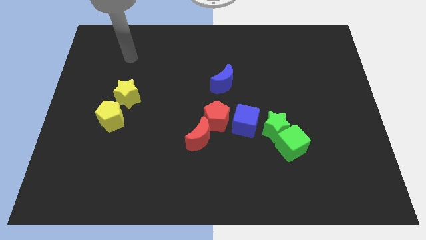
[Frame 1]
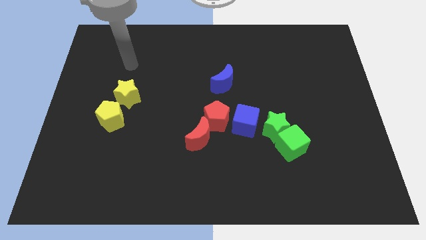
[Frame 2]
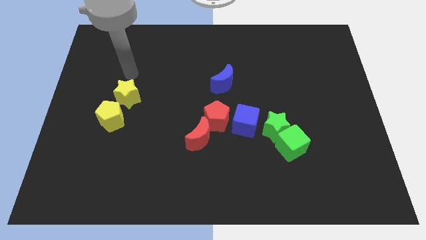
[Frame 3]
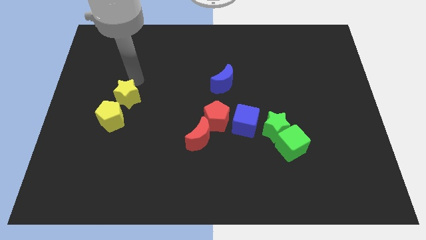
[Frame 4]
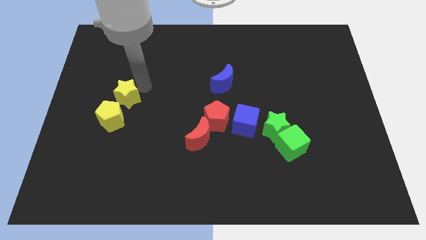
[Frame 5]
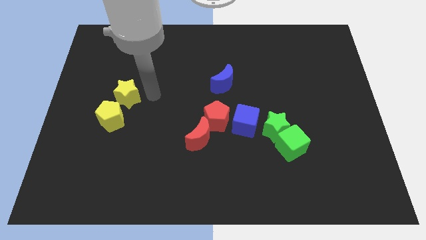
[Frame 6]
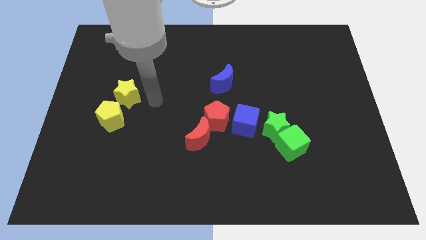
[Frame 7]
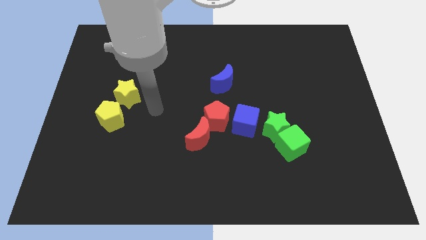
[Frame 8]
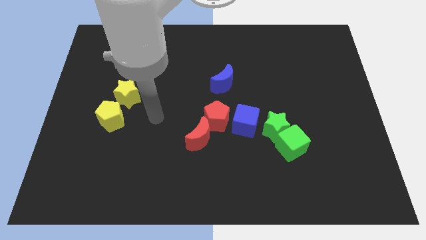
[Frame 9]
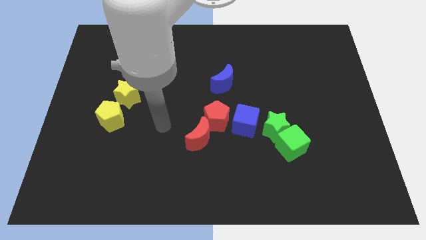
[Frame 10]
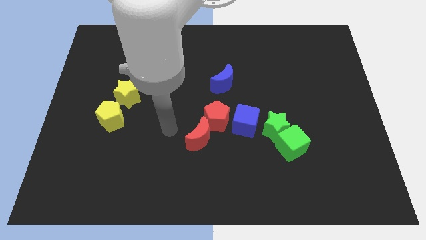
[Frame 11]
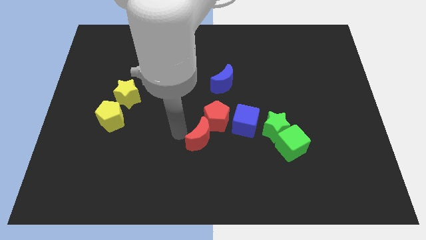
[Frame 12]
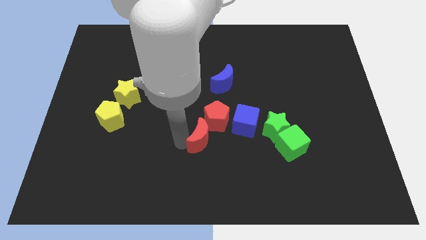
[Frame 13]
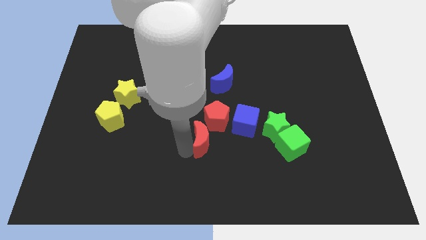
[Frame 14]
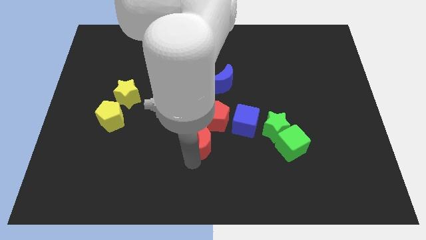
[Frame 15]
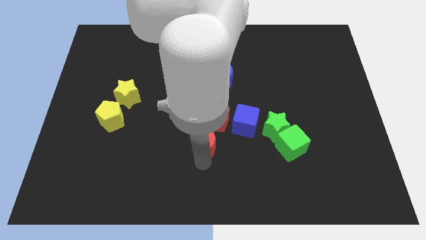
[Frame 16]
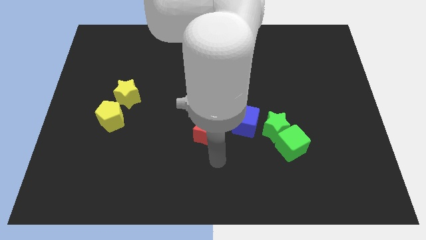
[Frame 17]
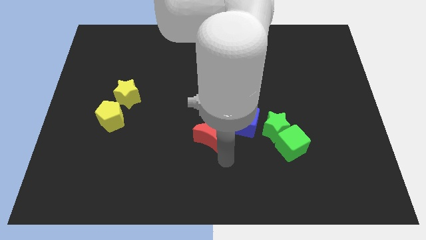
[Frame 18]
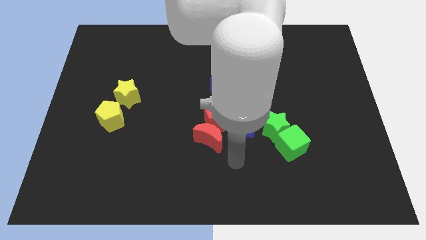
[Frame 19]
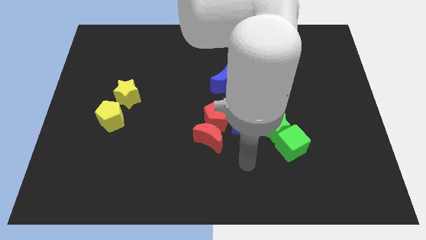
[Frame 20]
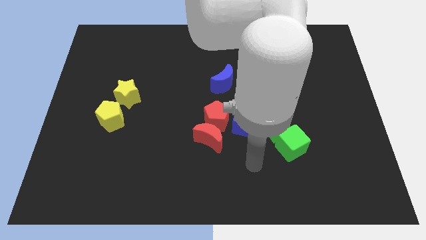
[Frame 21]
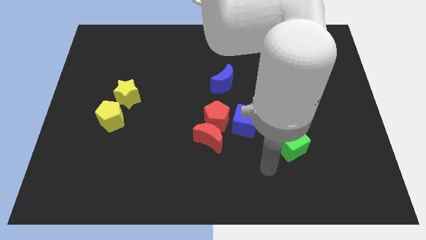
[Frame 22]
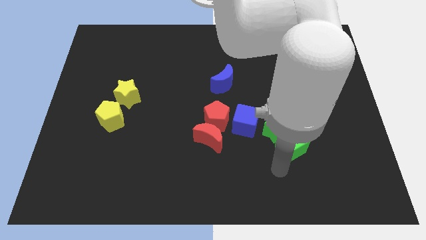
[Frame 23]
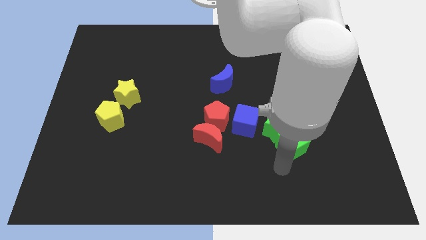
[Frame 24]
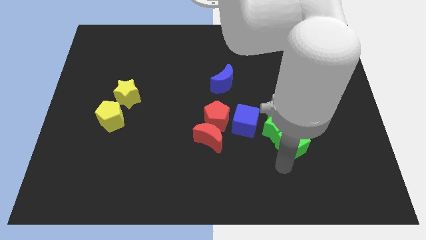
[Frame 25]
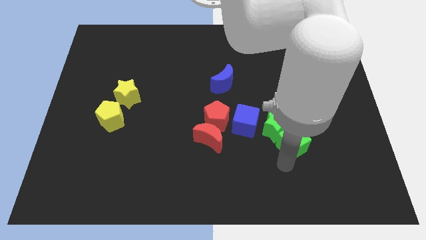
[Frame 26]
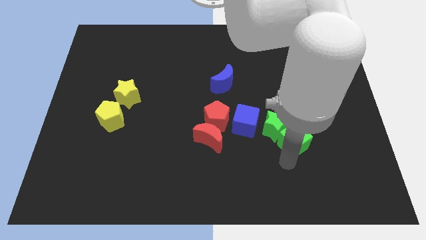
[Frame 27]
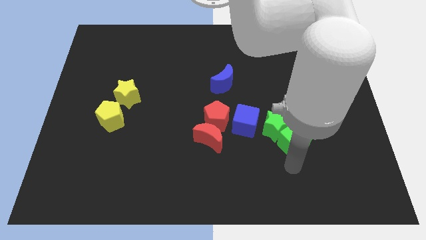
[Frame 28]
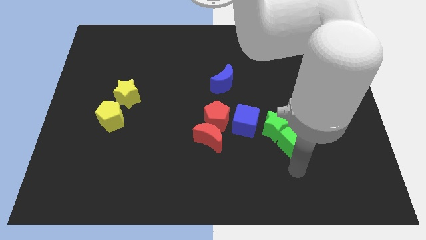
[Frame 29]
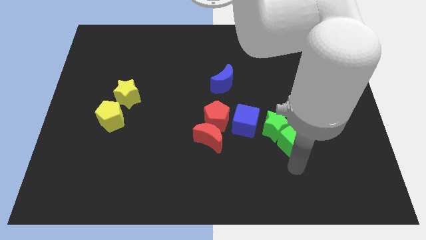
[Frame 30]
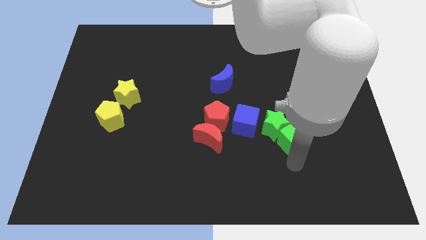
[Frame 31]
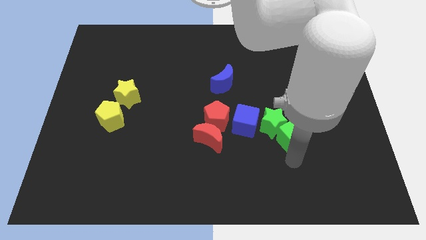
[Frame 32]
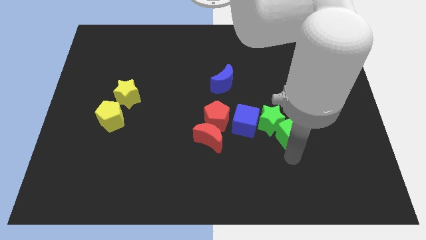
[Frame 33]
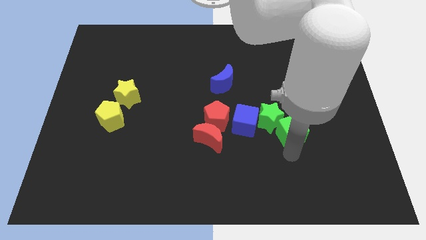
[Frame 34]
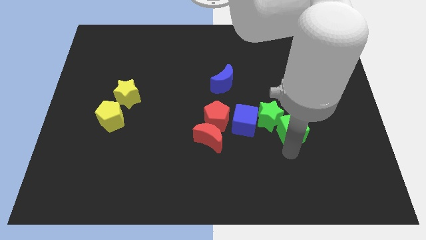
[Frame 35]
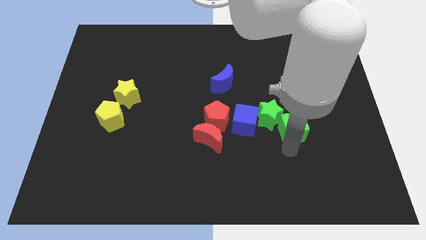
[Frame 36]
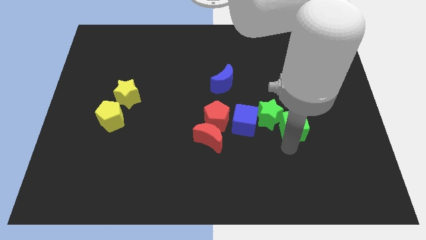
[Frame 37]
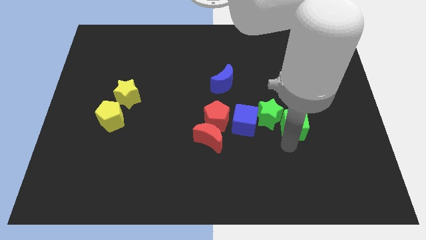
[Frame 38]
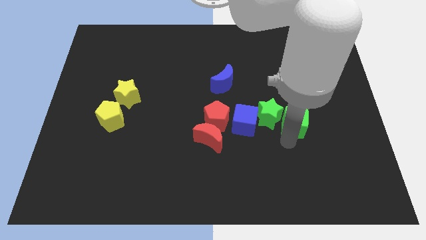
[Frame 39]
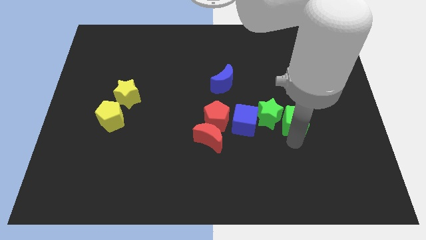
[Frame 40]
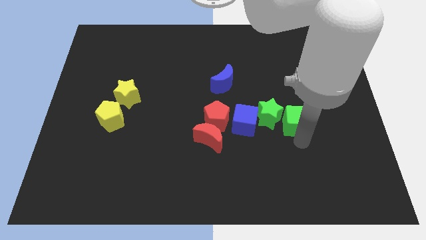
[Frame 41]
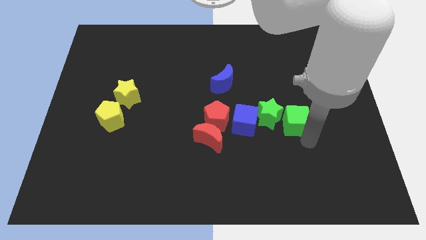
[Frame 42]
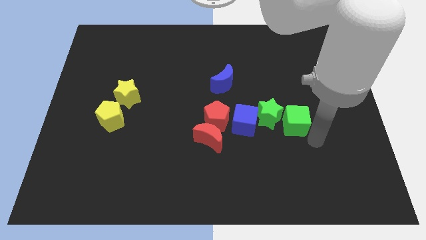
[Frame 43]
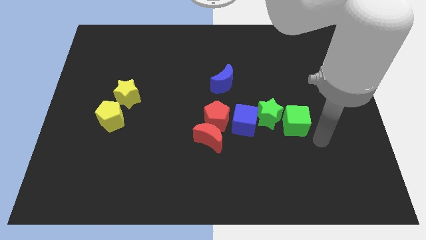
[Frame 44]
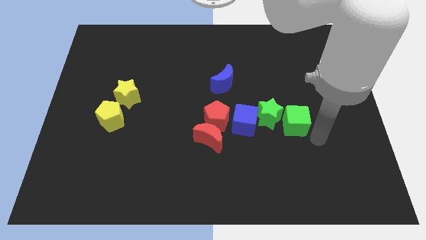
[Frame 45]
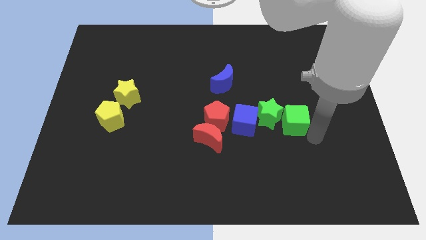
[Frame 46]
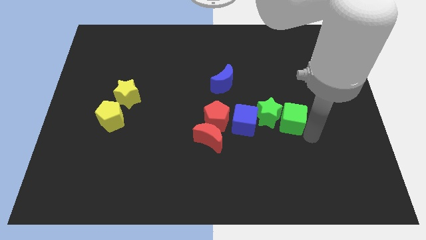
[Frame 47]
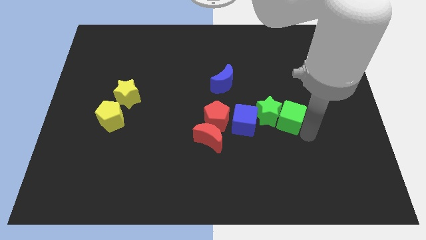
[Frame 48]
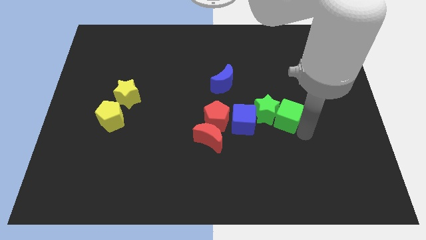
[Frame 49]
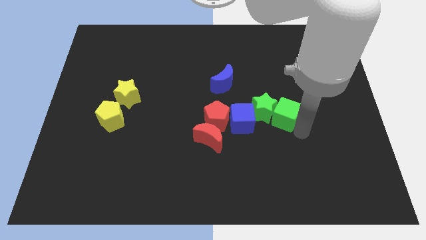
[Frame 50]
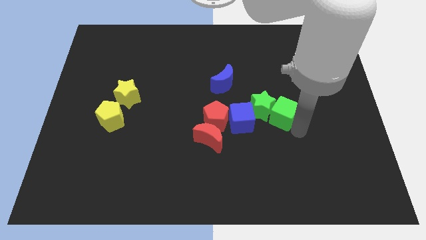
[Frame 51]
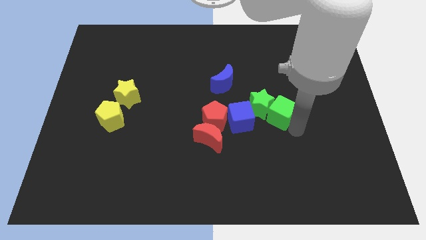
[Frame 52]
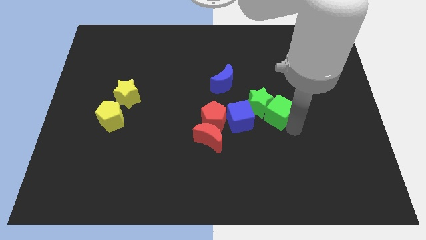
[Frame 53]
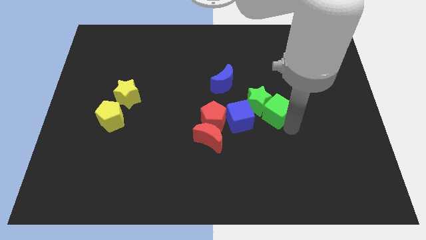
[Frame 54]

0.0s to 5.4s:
slide the green cube up and then to the left somewhat

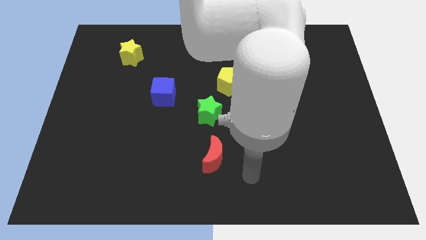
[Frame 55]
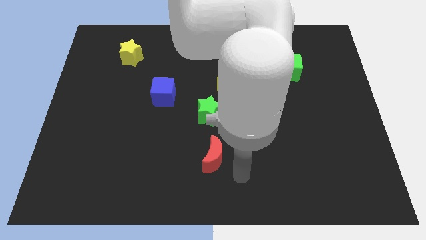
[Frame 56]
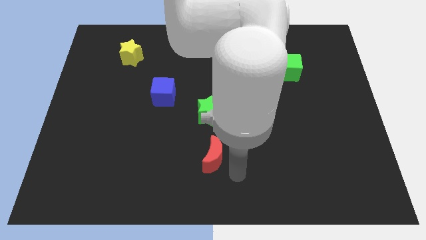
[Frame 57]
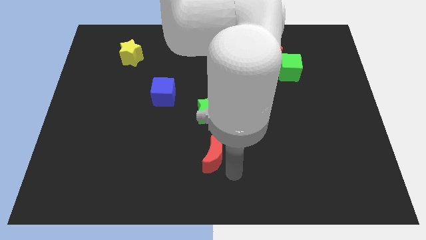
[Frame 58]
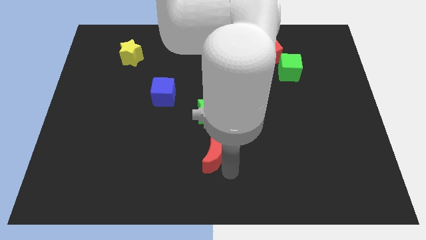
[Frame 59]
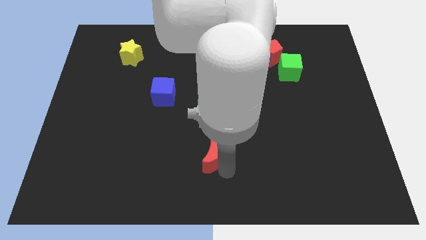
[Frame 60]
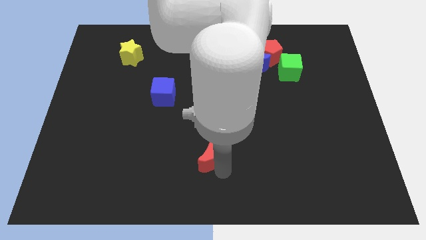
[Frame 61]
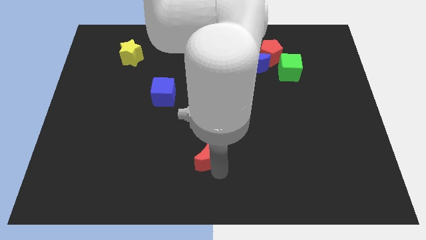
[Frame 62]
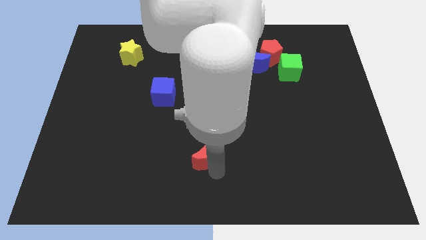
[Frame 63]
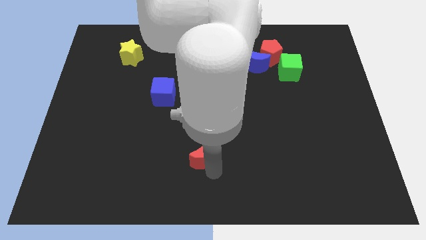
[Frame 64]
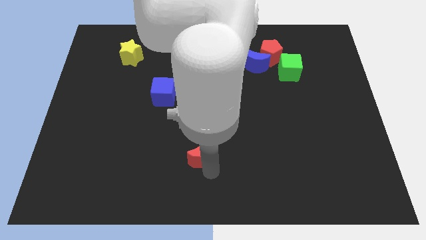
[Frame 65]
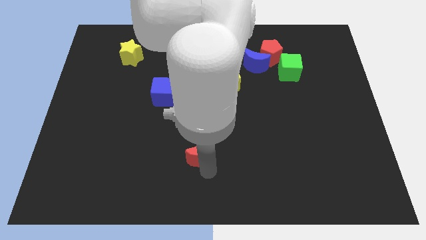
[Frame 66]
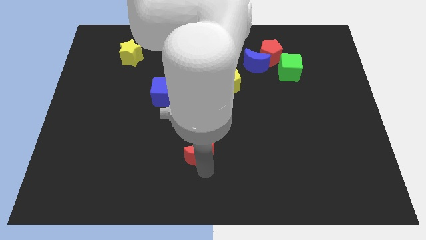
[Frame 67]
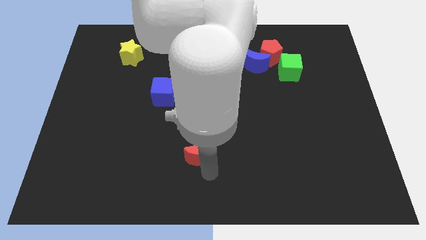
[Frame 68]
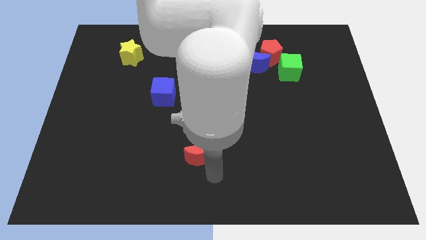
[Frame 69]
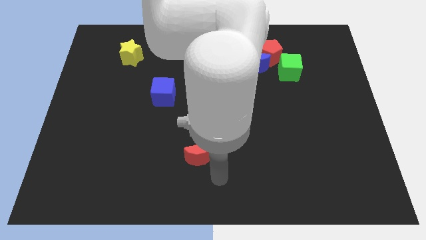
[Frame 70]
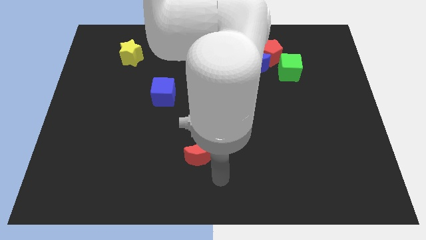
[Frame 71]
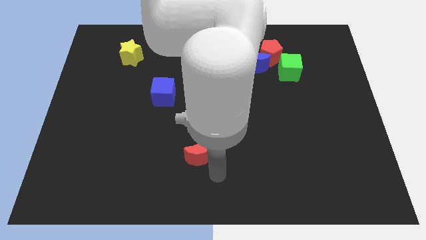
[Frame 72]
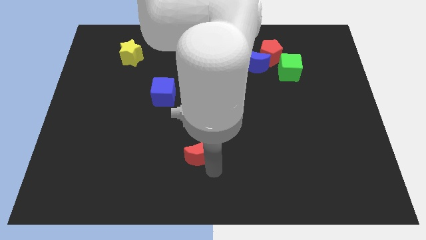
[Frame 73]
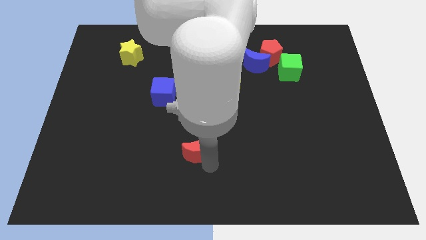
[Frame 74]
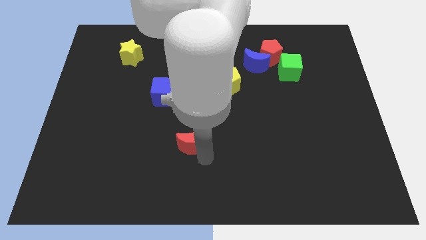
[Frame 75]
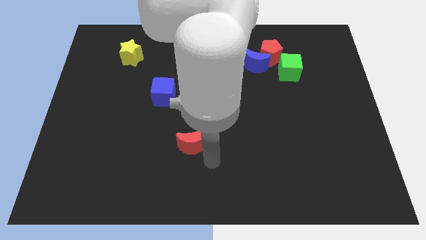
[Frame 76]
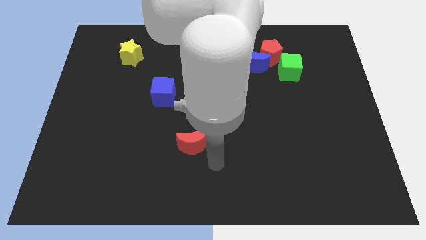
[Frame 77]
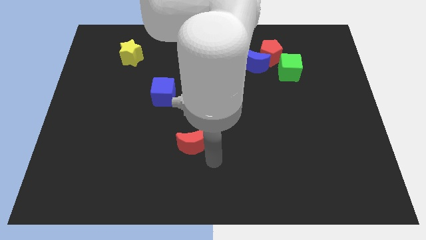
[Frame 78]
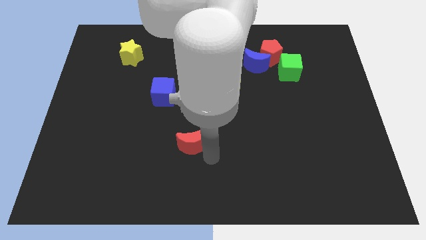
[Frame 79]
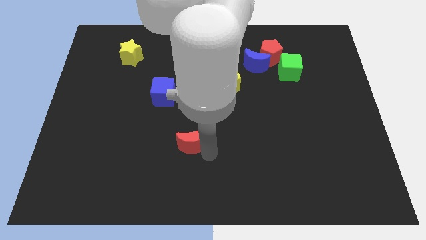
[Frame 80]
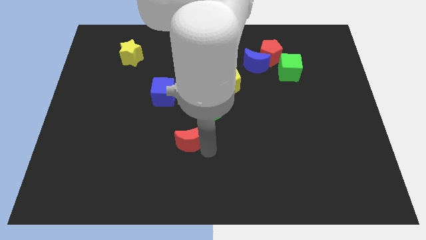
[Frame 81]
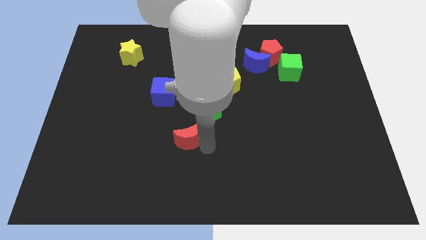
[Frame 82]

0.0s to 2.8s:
move the red moon diagonally upwards and left a little bit

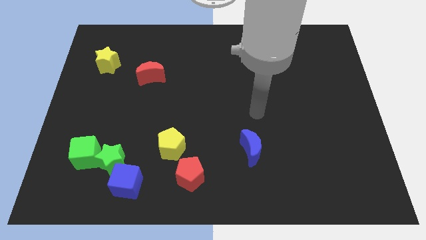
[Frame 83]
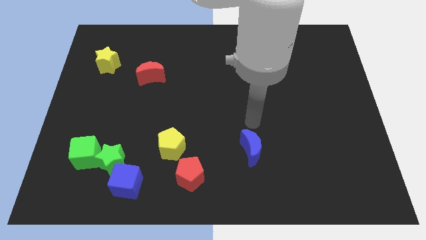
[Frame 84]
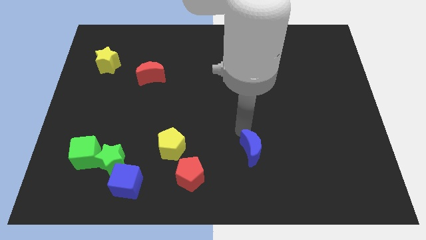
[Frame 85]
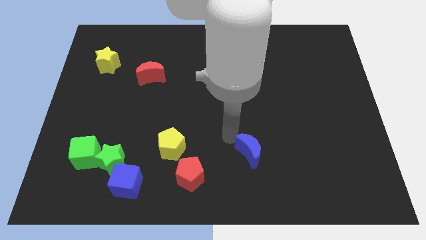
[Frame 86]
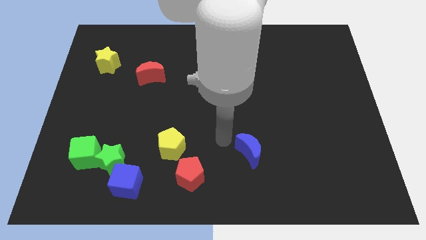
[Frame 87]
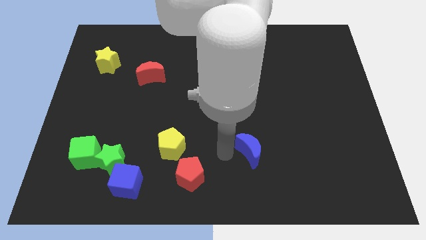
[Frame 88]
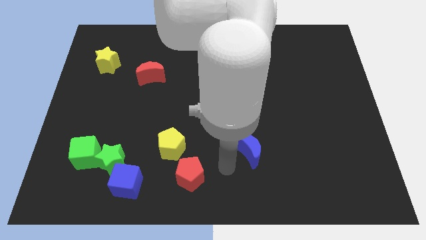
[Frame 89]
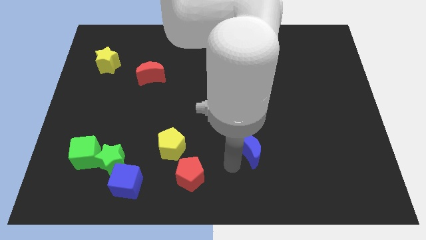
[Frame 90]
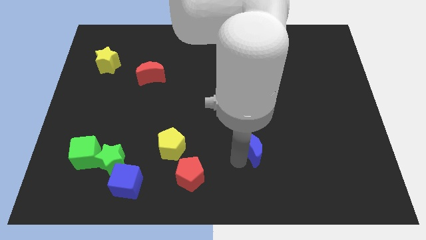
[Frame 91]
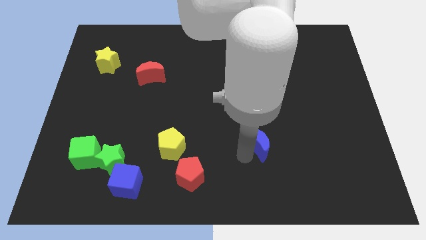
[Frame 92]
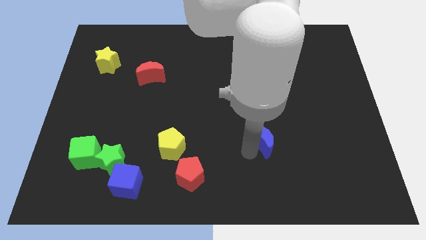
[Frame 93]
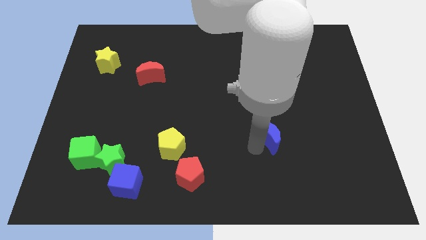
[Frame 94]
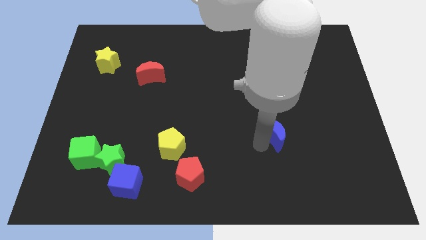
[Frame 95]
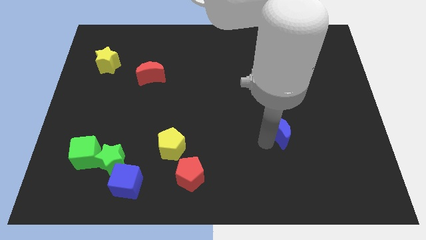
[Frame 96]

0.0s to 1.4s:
push the blue moon slightly upwards and then to the right
